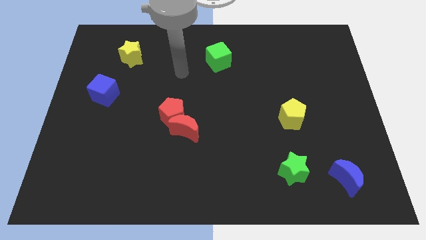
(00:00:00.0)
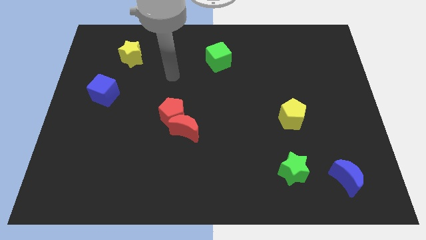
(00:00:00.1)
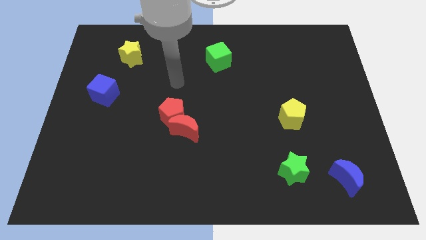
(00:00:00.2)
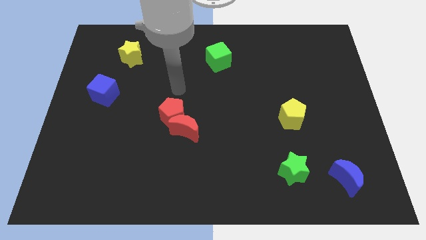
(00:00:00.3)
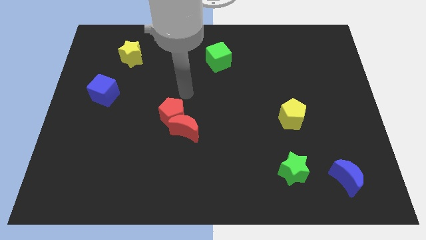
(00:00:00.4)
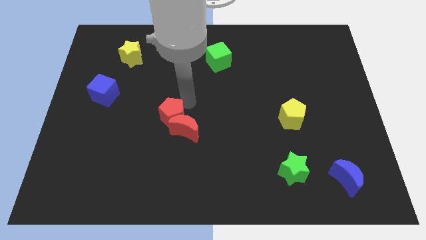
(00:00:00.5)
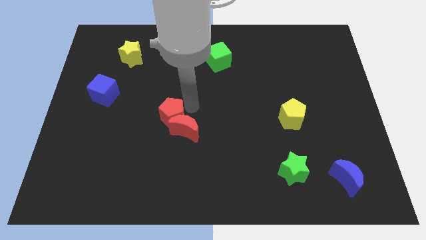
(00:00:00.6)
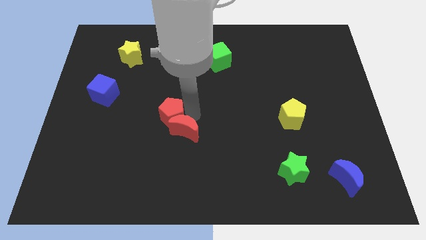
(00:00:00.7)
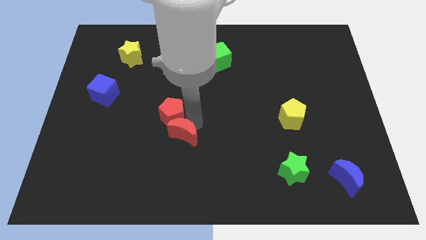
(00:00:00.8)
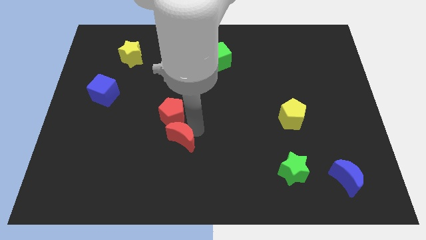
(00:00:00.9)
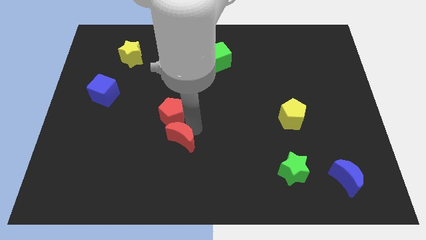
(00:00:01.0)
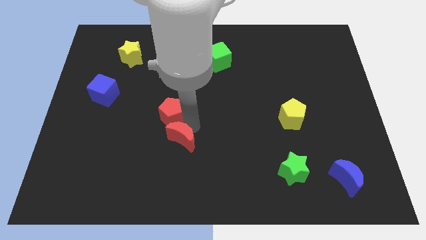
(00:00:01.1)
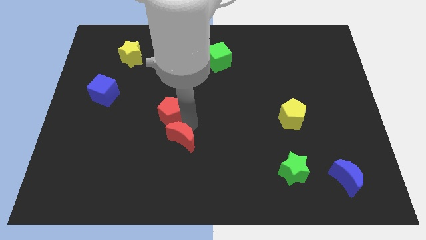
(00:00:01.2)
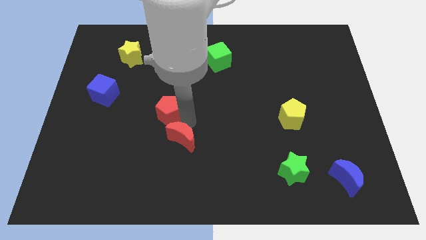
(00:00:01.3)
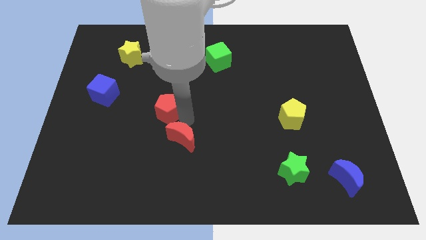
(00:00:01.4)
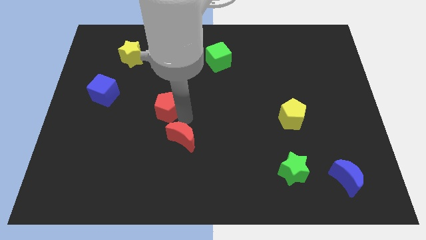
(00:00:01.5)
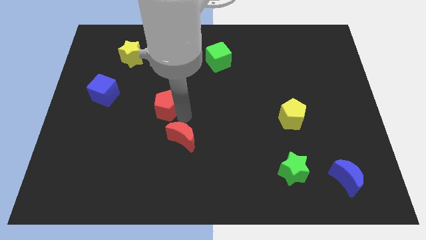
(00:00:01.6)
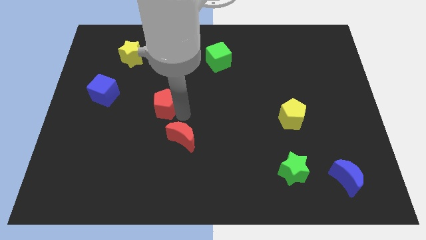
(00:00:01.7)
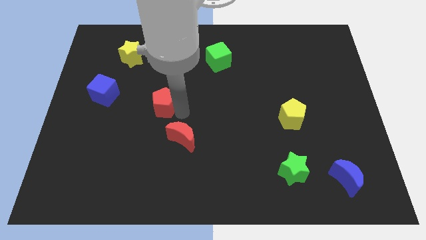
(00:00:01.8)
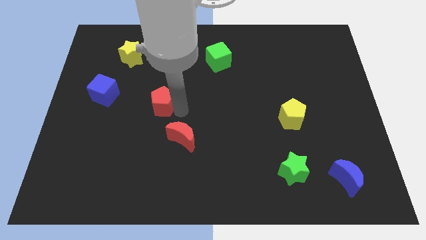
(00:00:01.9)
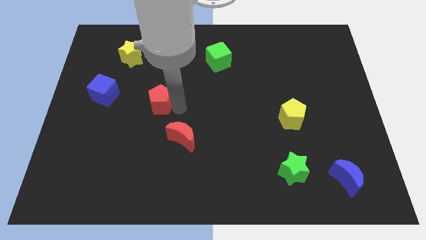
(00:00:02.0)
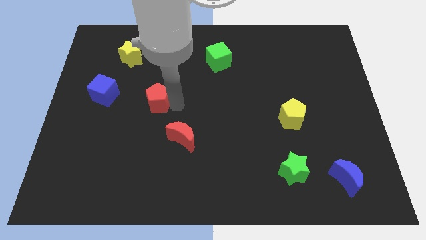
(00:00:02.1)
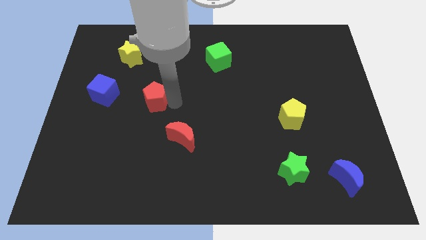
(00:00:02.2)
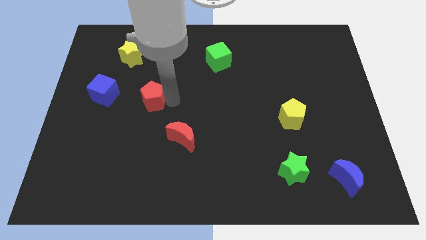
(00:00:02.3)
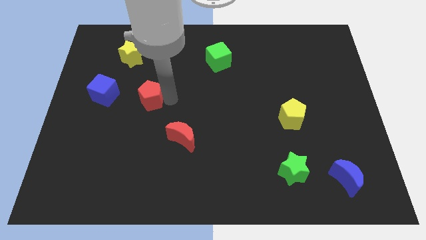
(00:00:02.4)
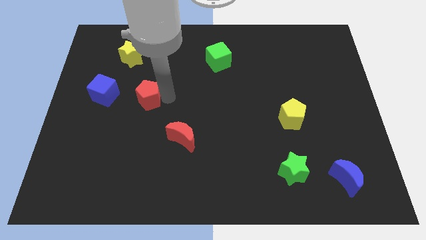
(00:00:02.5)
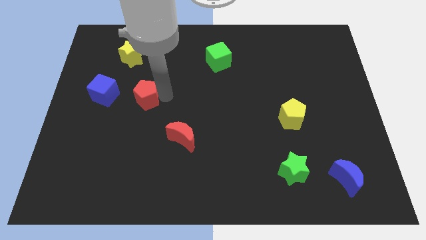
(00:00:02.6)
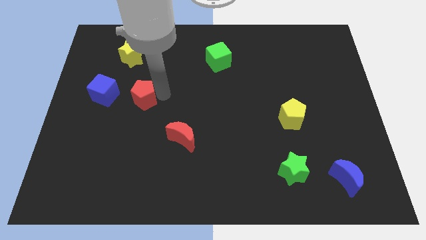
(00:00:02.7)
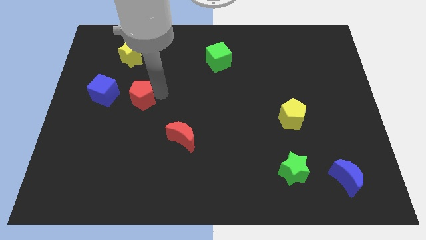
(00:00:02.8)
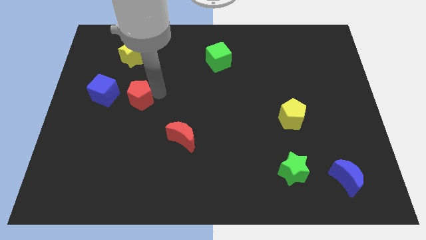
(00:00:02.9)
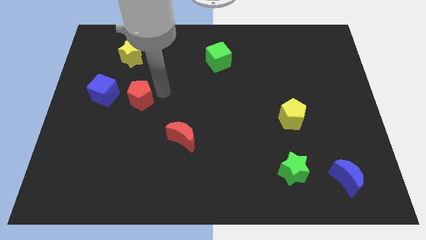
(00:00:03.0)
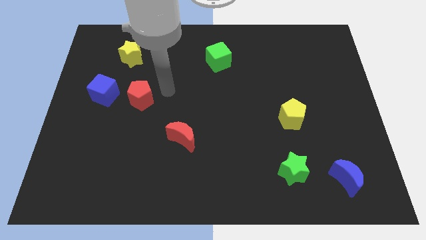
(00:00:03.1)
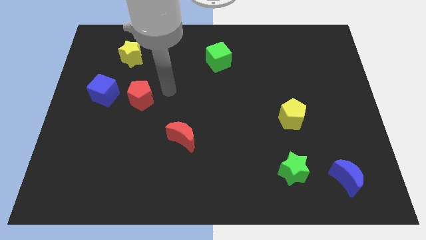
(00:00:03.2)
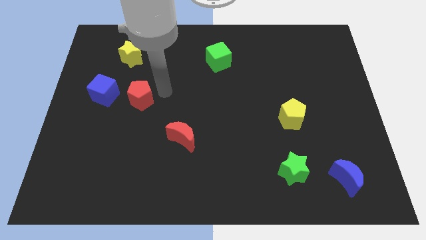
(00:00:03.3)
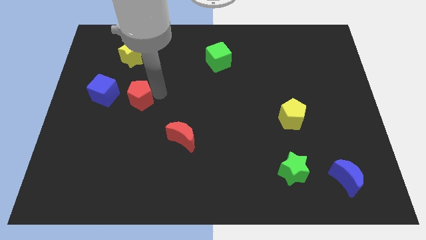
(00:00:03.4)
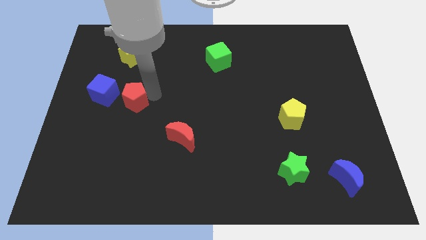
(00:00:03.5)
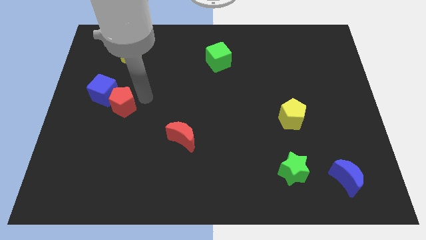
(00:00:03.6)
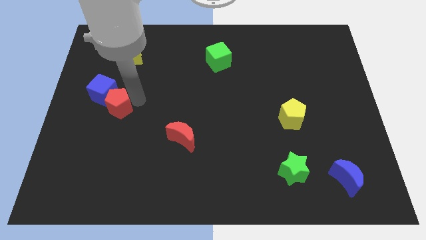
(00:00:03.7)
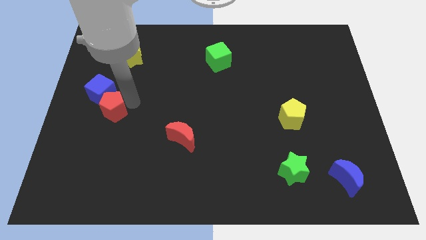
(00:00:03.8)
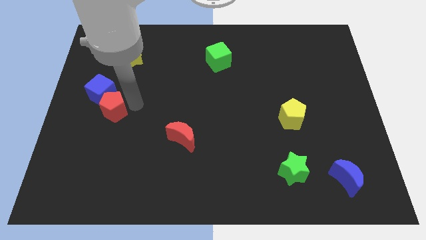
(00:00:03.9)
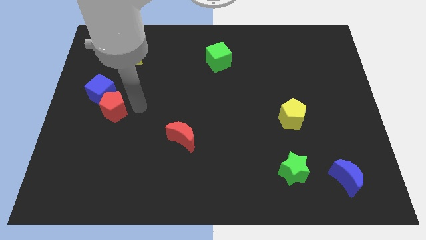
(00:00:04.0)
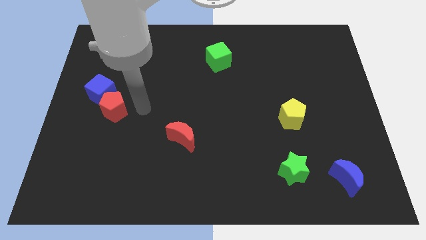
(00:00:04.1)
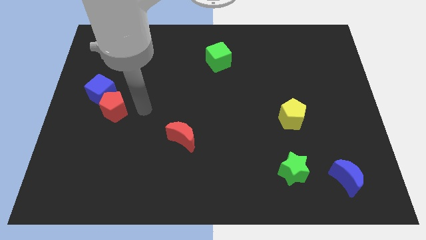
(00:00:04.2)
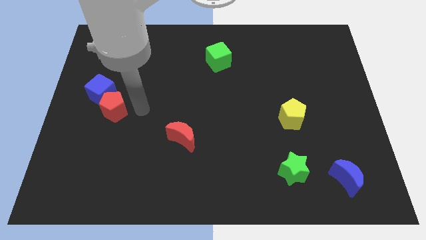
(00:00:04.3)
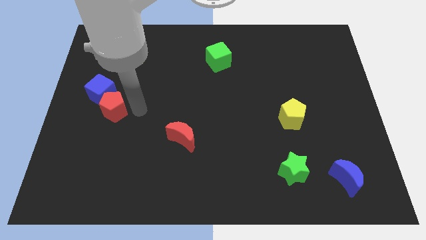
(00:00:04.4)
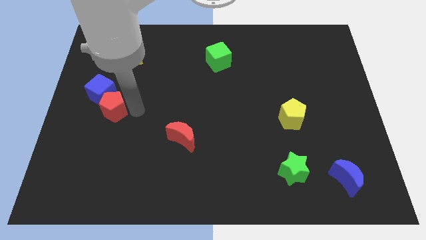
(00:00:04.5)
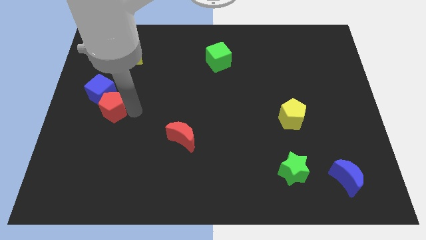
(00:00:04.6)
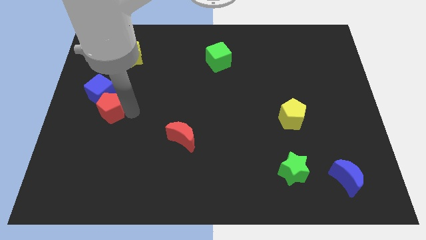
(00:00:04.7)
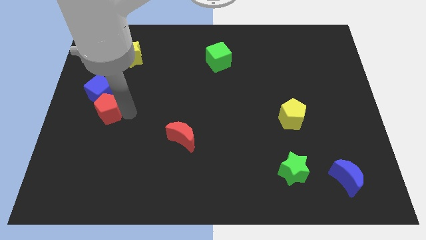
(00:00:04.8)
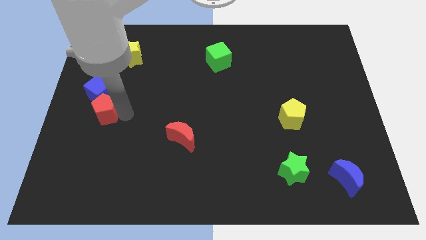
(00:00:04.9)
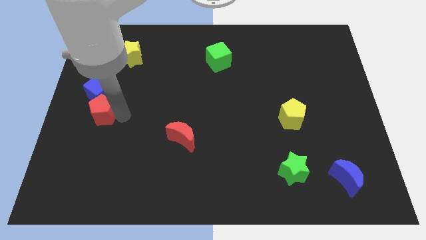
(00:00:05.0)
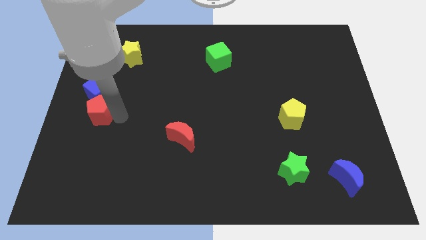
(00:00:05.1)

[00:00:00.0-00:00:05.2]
put the red pentagon to the left side of the board
